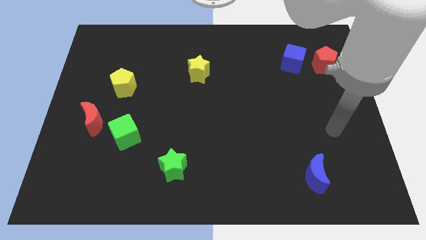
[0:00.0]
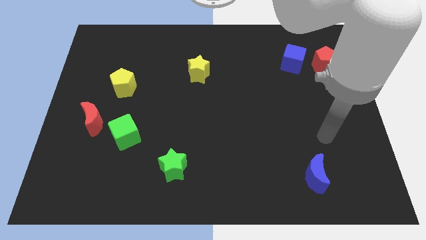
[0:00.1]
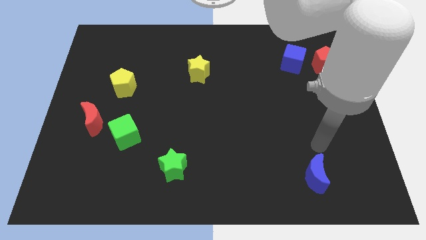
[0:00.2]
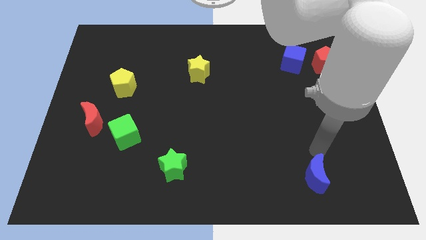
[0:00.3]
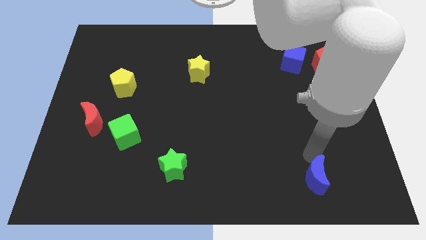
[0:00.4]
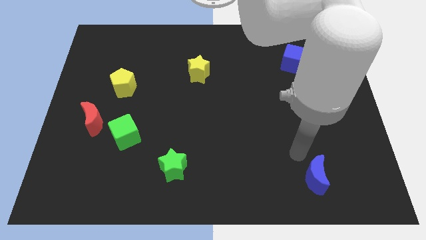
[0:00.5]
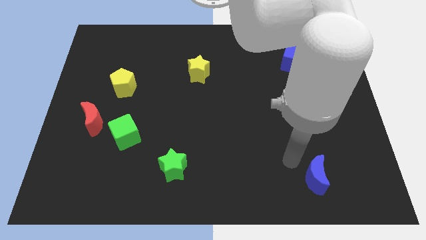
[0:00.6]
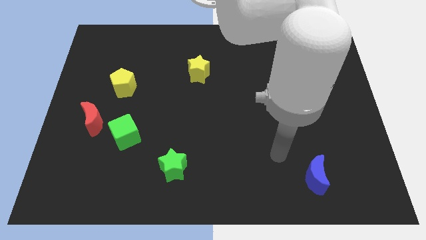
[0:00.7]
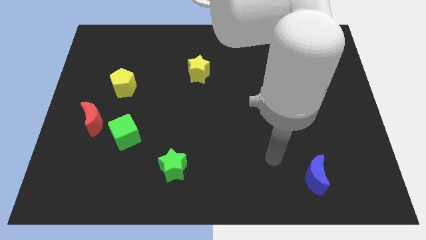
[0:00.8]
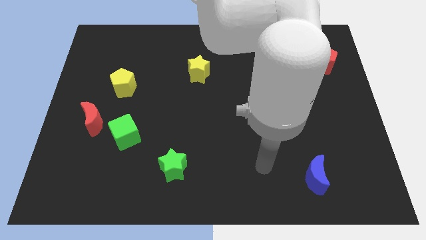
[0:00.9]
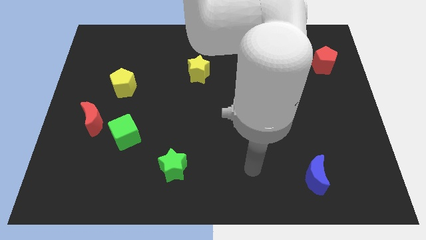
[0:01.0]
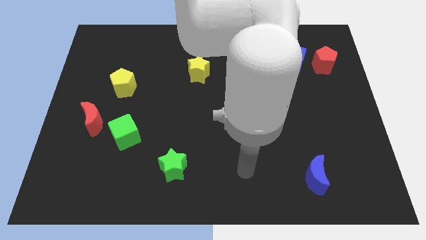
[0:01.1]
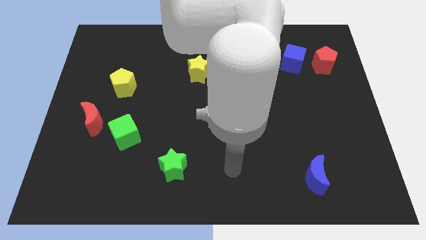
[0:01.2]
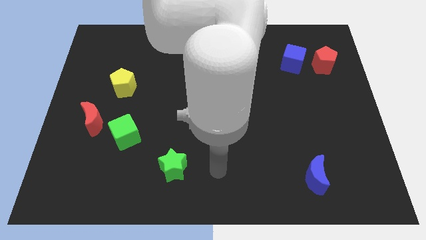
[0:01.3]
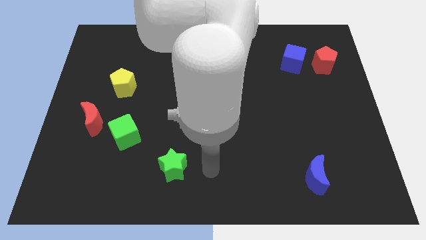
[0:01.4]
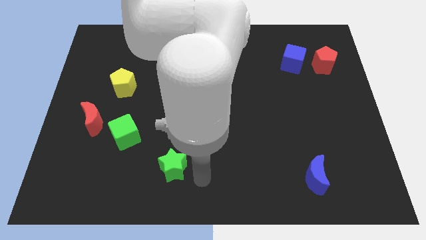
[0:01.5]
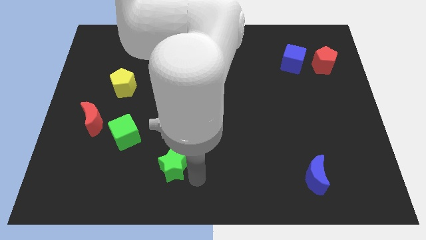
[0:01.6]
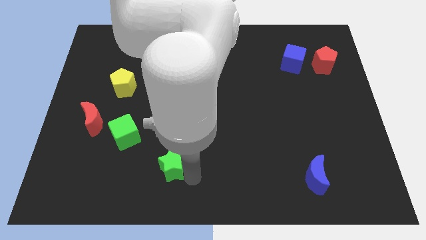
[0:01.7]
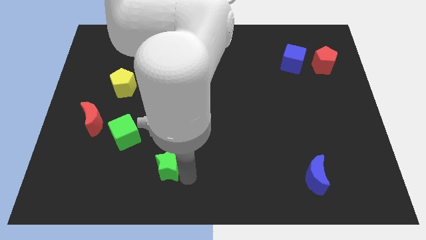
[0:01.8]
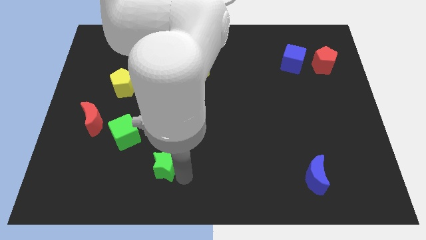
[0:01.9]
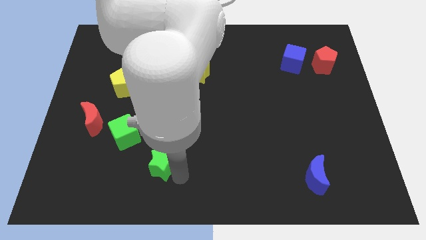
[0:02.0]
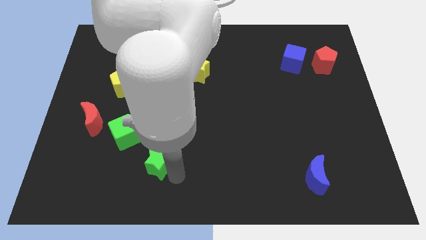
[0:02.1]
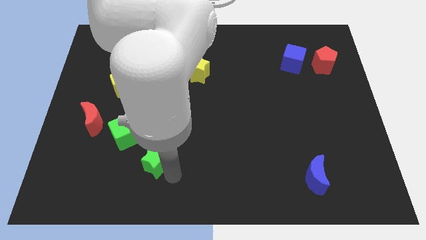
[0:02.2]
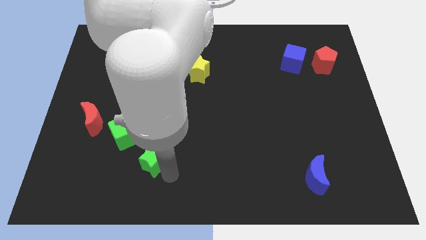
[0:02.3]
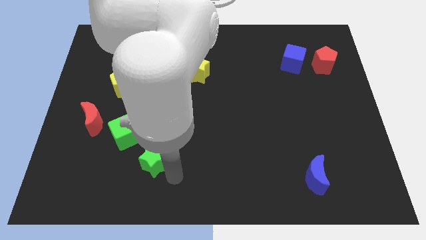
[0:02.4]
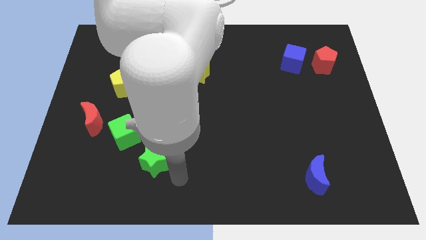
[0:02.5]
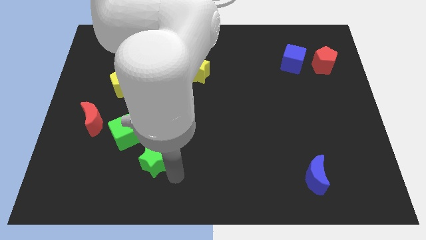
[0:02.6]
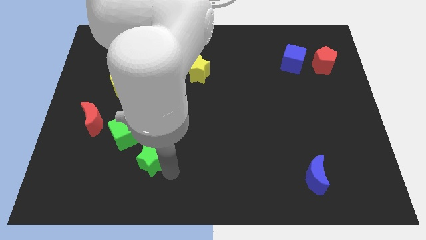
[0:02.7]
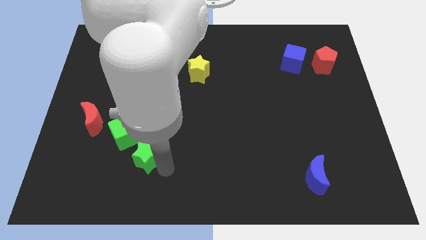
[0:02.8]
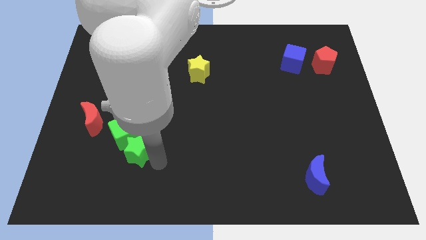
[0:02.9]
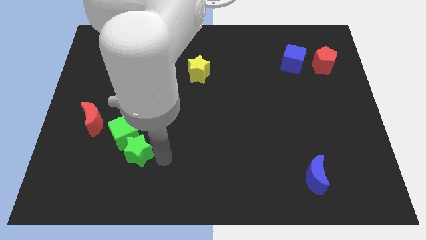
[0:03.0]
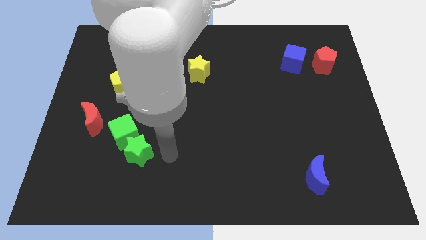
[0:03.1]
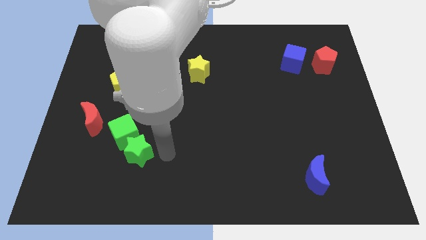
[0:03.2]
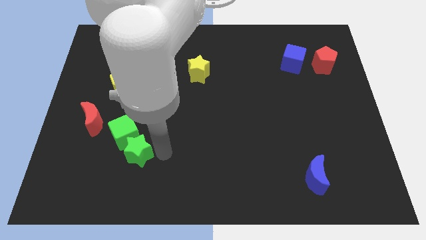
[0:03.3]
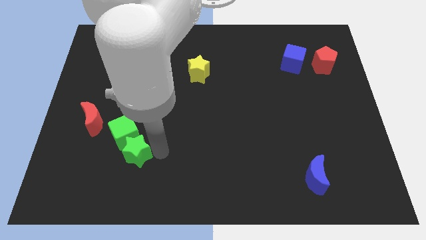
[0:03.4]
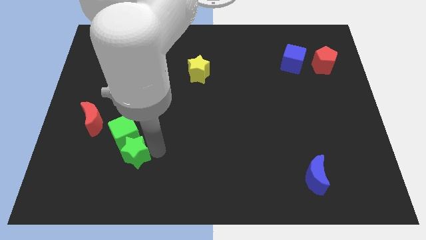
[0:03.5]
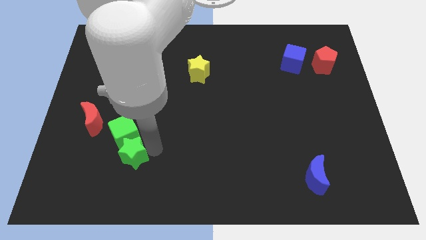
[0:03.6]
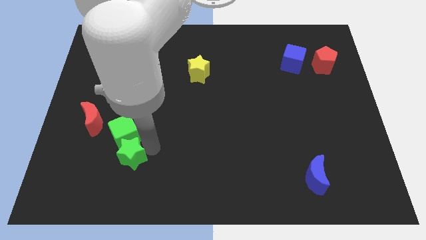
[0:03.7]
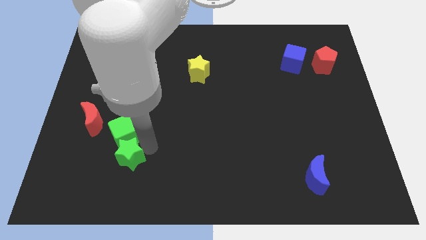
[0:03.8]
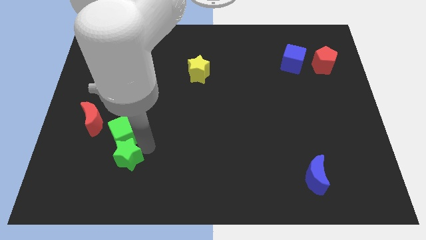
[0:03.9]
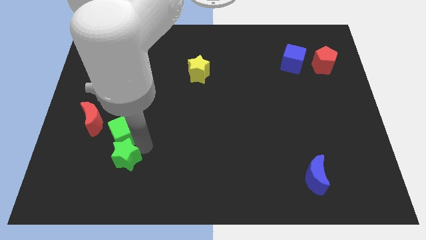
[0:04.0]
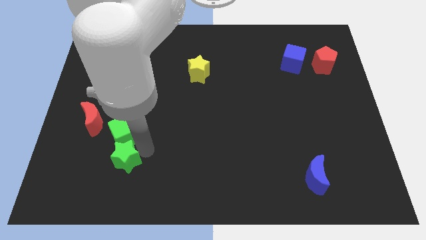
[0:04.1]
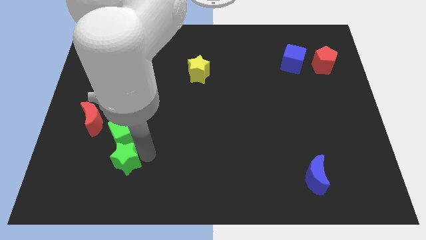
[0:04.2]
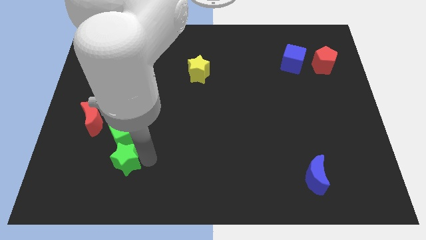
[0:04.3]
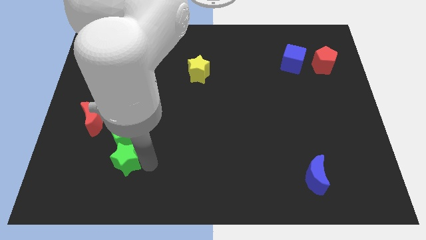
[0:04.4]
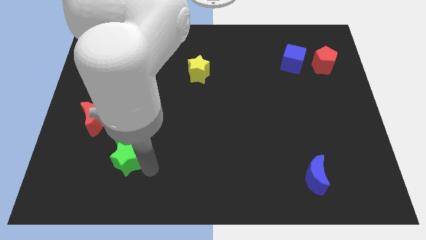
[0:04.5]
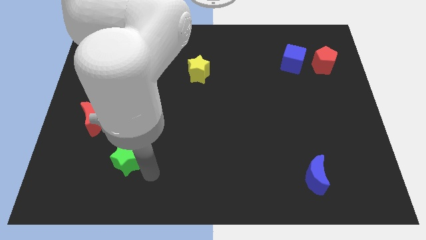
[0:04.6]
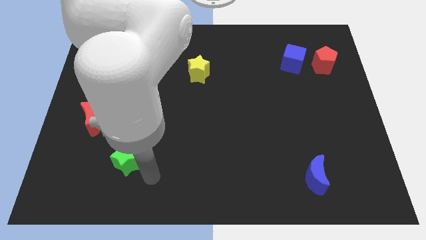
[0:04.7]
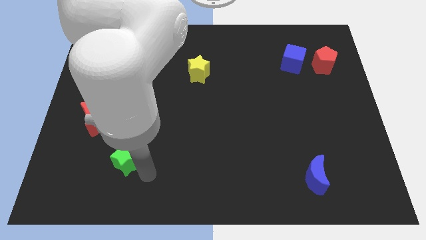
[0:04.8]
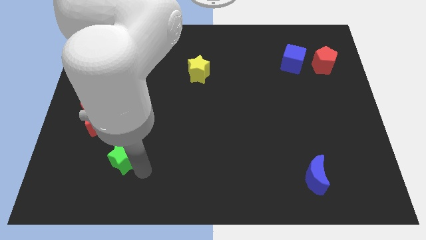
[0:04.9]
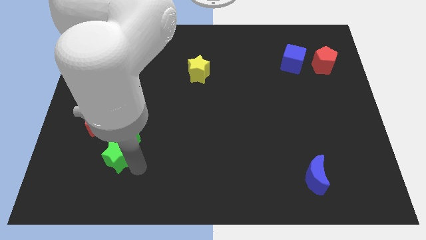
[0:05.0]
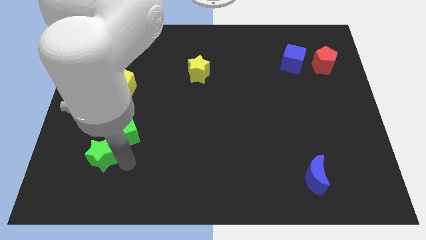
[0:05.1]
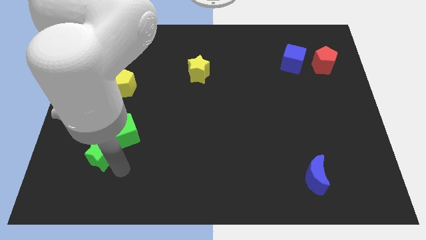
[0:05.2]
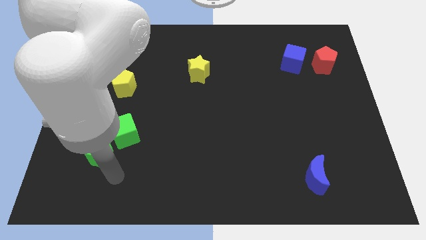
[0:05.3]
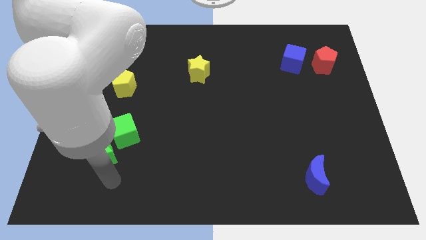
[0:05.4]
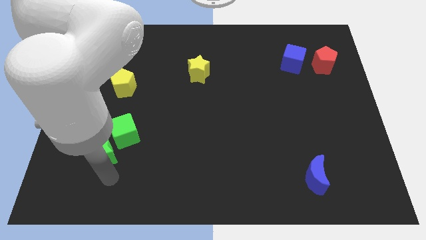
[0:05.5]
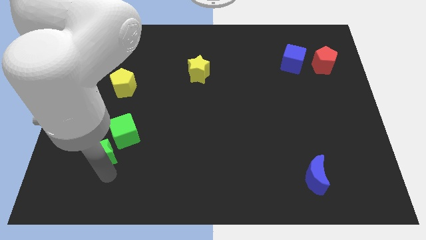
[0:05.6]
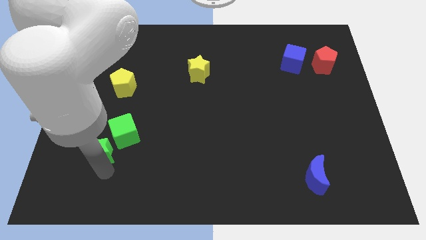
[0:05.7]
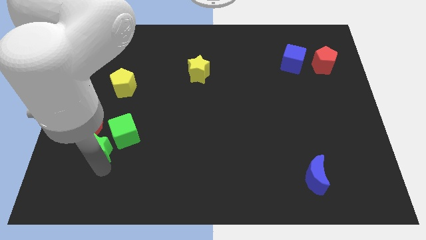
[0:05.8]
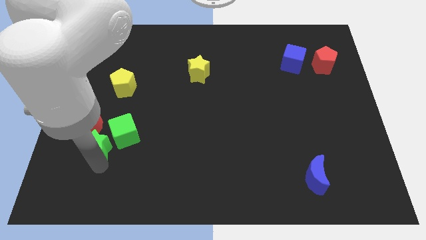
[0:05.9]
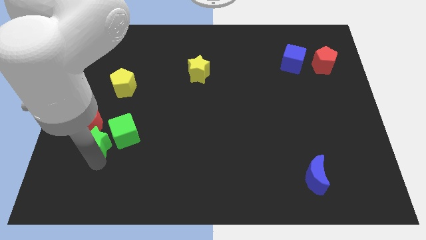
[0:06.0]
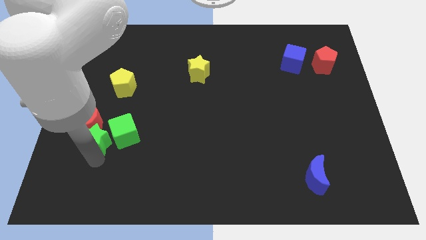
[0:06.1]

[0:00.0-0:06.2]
push the green star next to the red moon

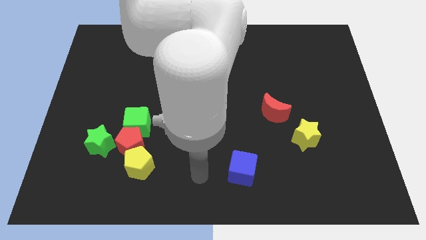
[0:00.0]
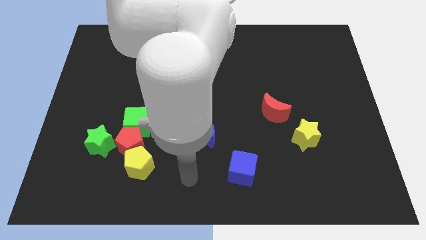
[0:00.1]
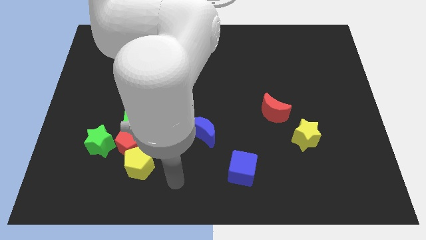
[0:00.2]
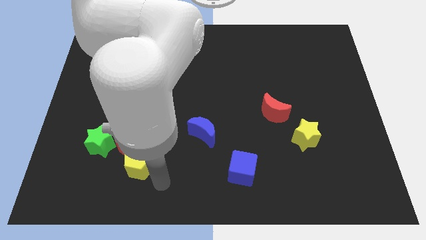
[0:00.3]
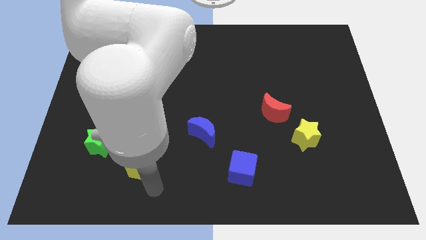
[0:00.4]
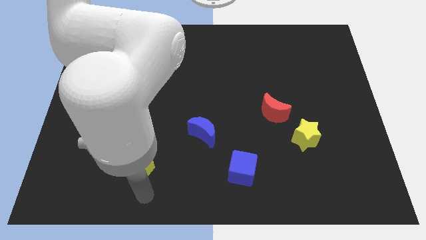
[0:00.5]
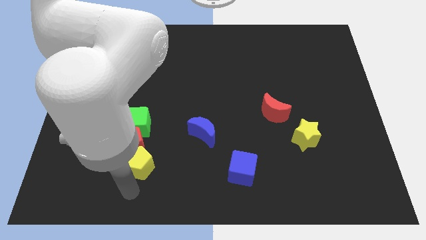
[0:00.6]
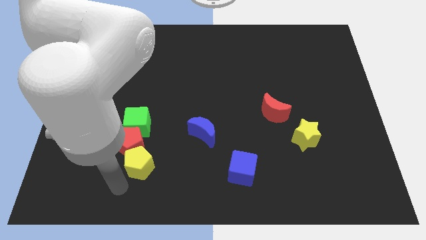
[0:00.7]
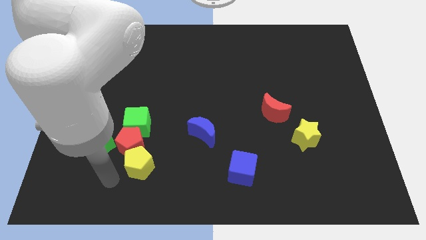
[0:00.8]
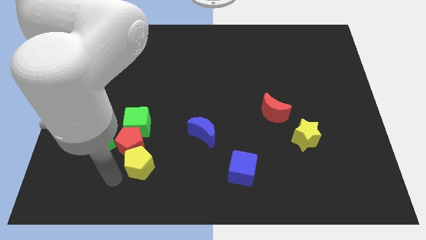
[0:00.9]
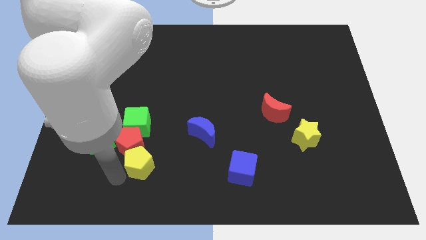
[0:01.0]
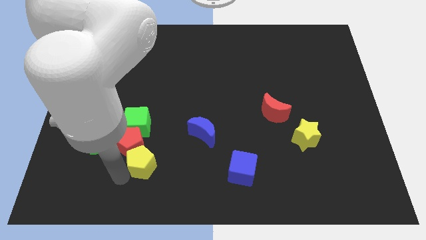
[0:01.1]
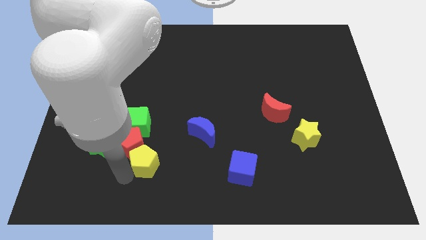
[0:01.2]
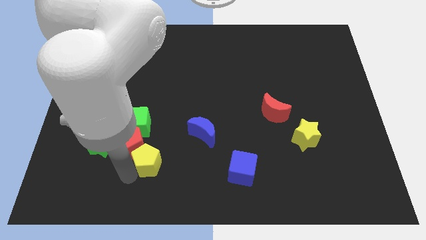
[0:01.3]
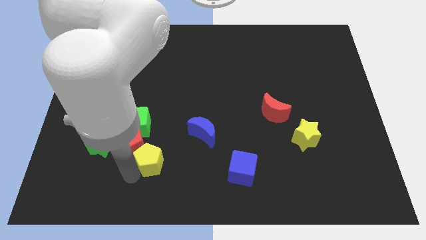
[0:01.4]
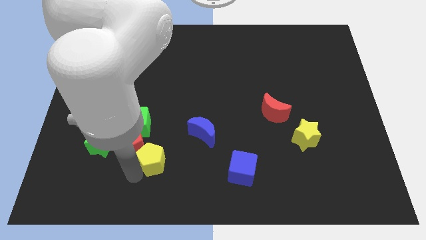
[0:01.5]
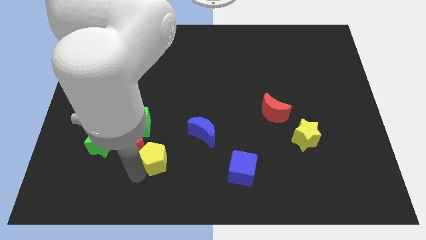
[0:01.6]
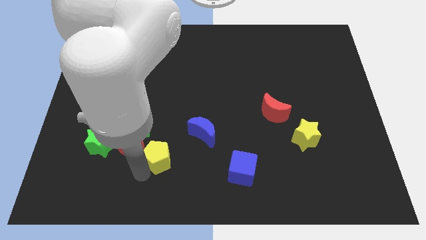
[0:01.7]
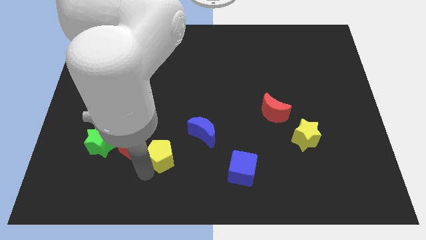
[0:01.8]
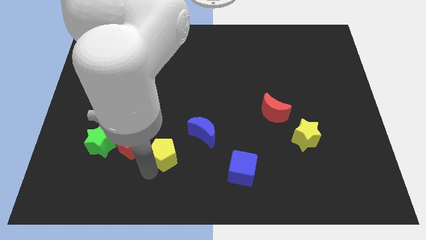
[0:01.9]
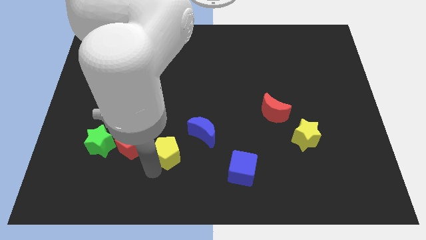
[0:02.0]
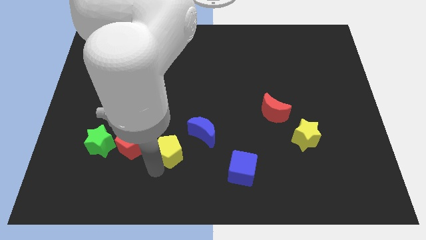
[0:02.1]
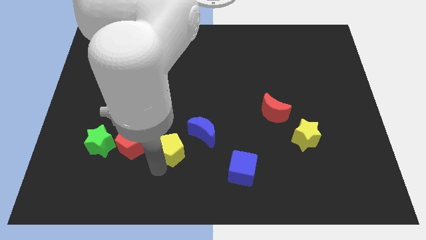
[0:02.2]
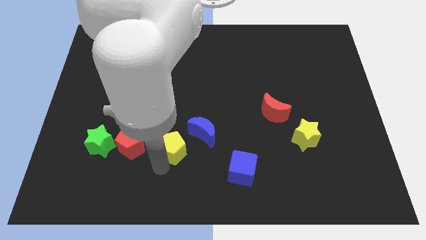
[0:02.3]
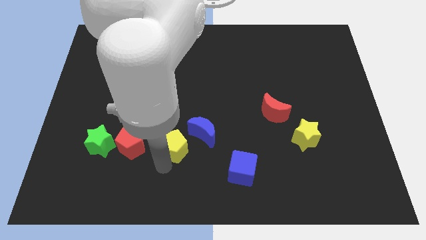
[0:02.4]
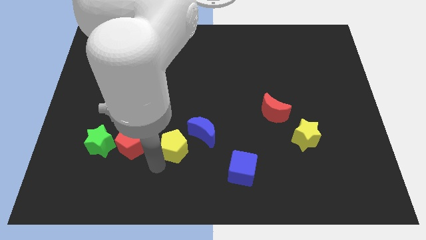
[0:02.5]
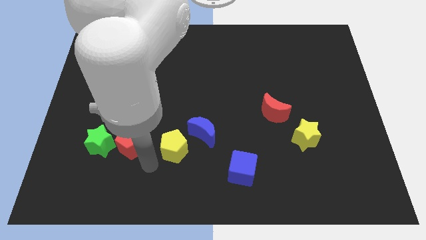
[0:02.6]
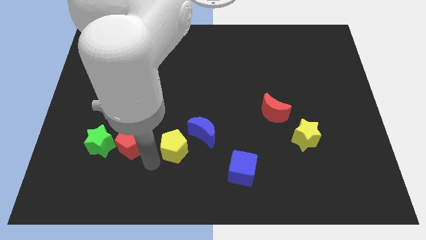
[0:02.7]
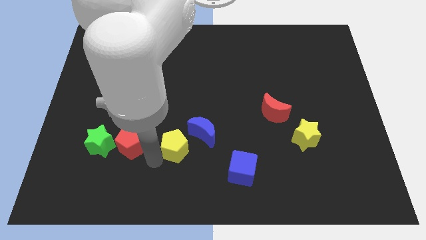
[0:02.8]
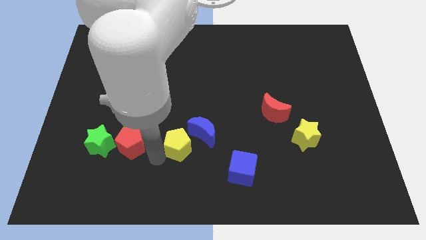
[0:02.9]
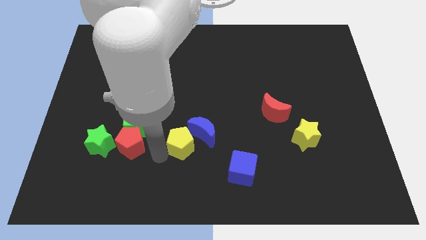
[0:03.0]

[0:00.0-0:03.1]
put the yellow pentagon next to the blue moon
